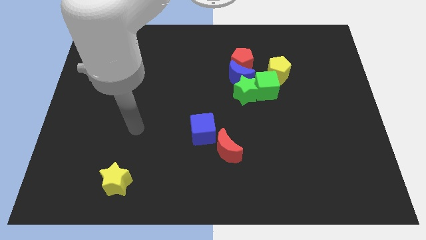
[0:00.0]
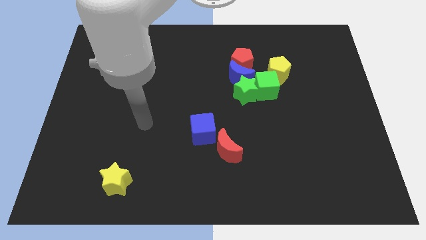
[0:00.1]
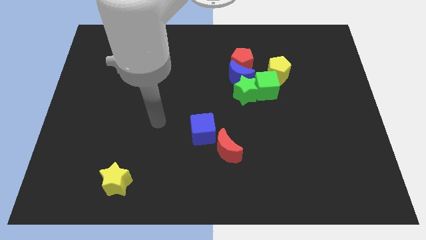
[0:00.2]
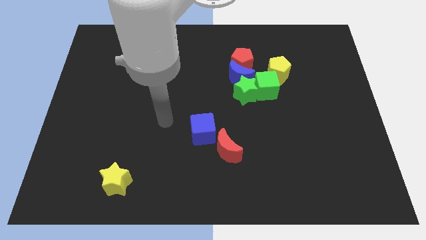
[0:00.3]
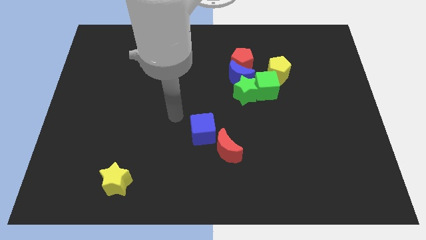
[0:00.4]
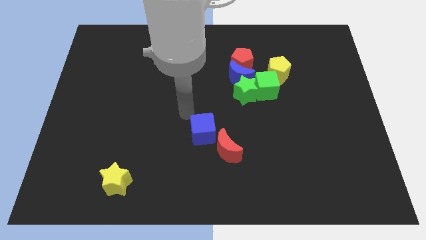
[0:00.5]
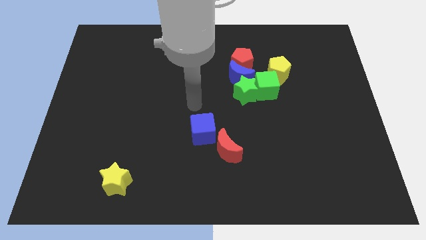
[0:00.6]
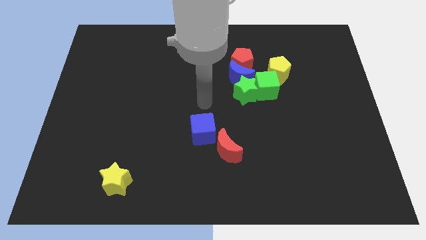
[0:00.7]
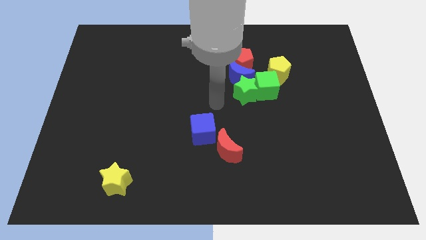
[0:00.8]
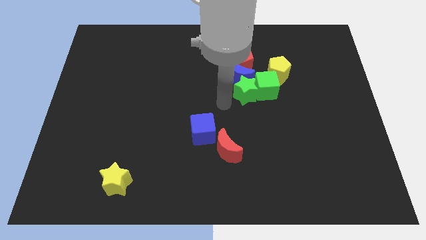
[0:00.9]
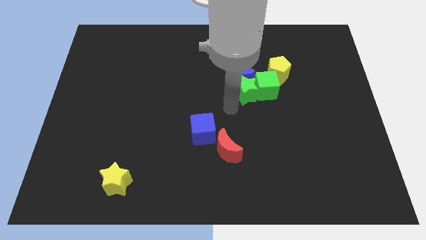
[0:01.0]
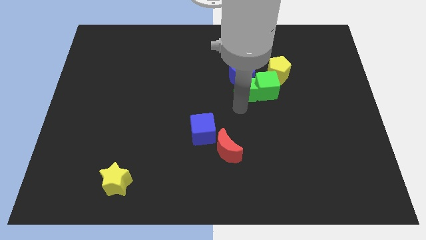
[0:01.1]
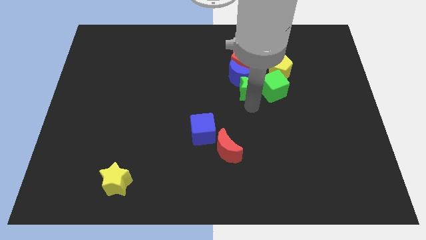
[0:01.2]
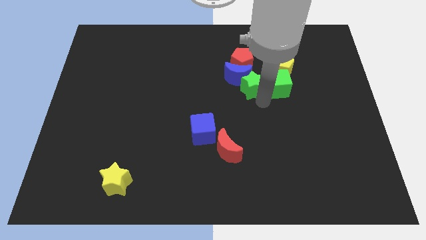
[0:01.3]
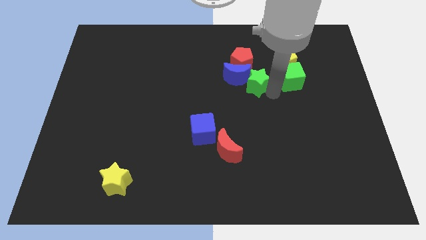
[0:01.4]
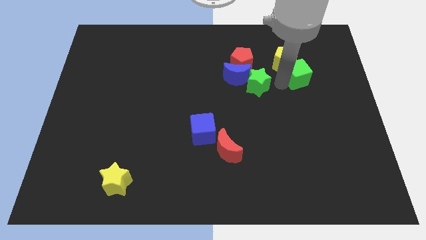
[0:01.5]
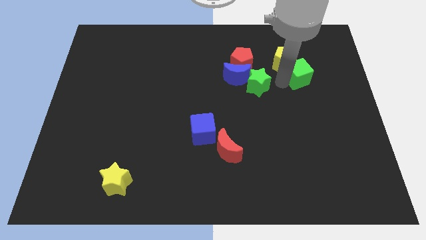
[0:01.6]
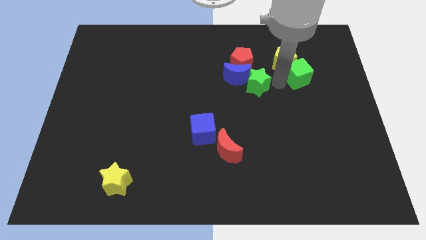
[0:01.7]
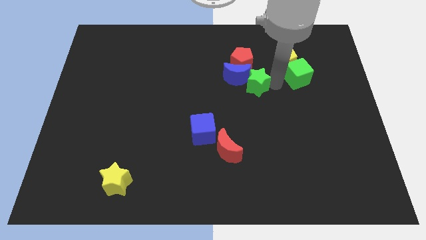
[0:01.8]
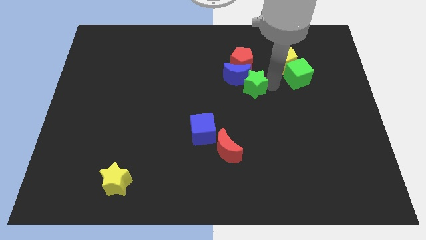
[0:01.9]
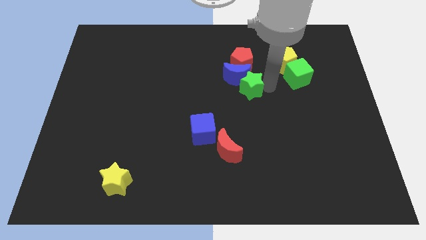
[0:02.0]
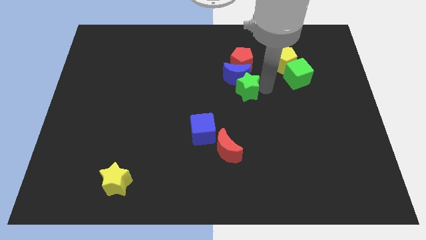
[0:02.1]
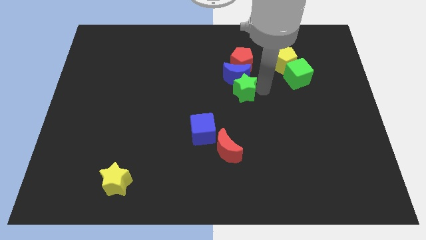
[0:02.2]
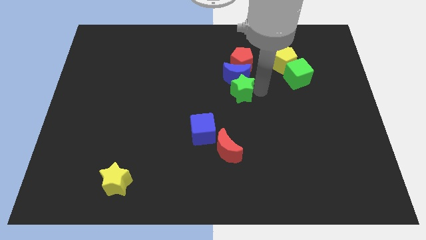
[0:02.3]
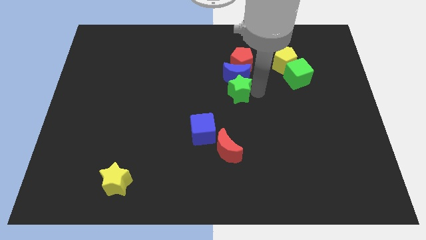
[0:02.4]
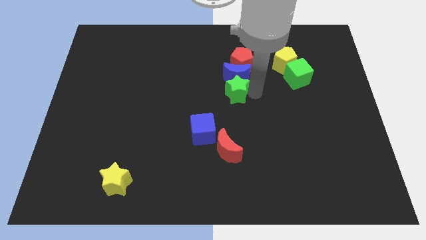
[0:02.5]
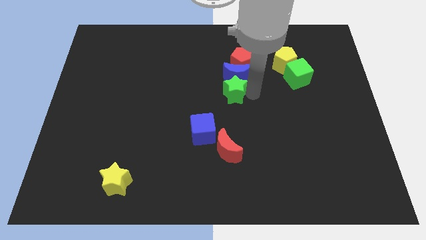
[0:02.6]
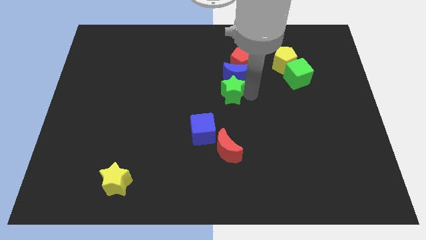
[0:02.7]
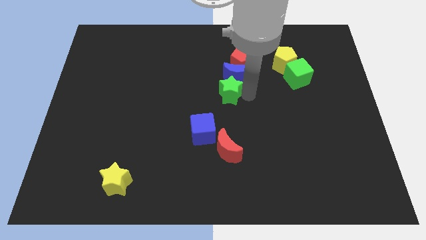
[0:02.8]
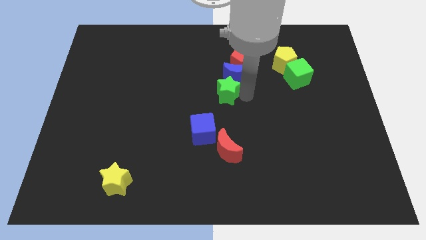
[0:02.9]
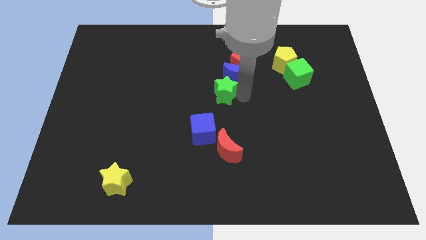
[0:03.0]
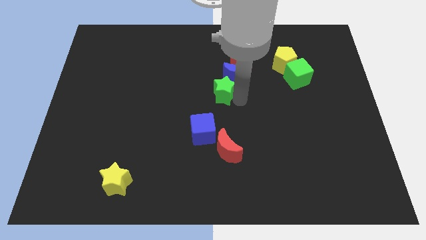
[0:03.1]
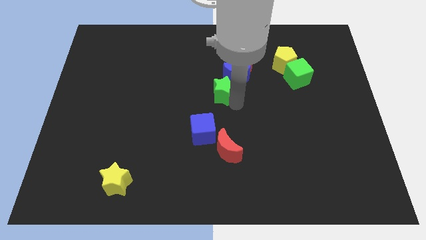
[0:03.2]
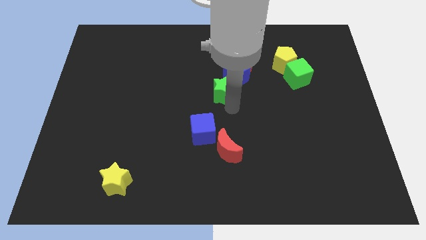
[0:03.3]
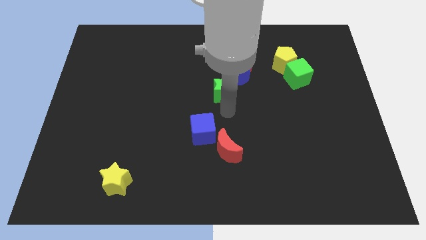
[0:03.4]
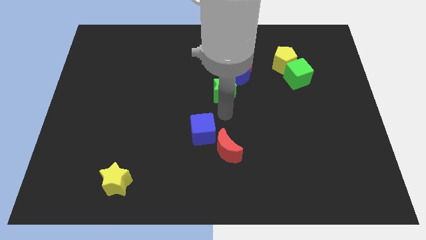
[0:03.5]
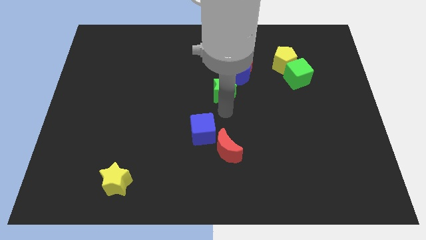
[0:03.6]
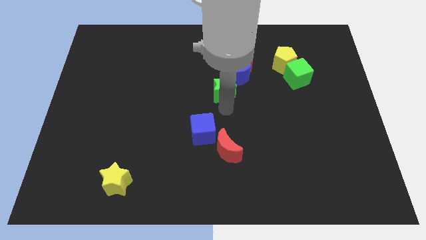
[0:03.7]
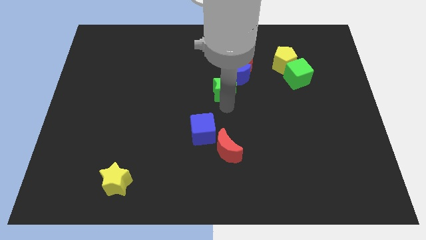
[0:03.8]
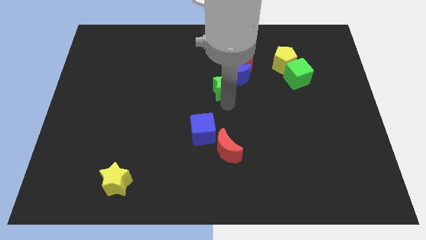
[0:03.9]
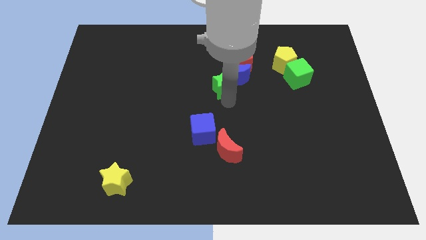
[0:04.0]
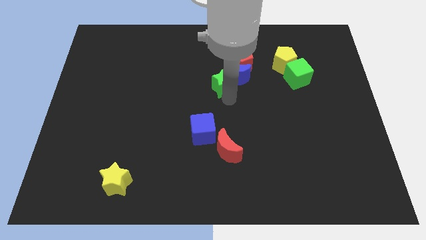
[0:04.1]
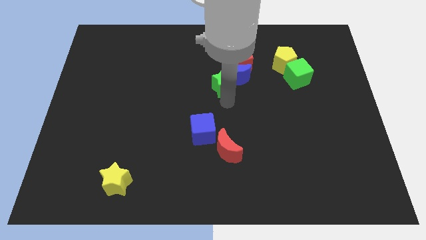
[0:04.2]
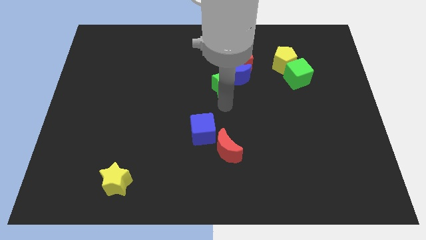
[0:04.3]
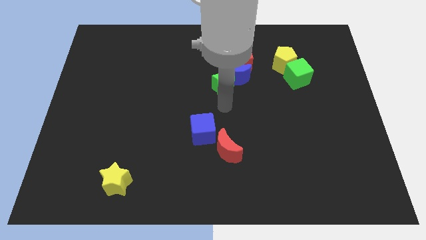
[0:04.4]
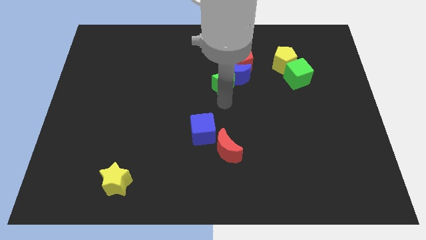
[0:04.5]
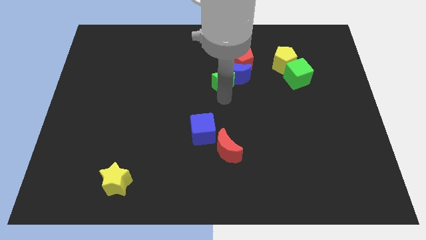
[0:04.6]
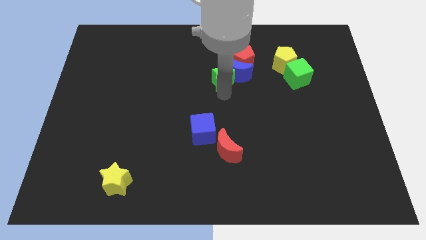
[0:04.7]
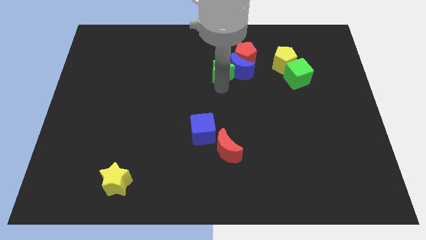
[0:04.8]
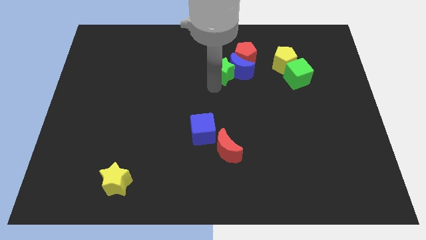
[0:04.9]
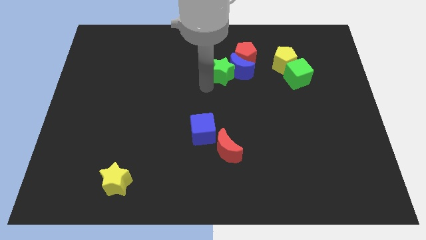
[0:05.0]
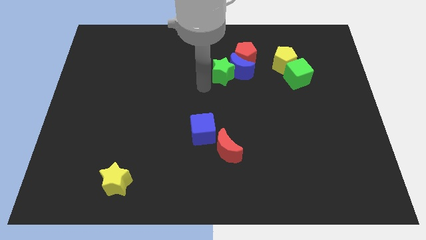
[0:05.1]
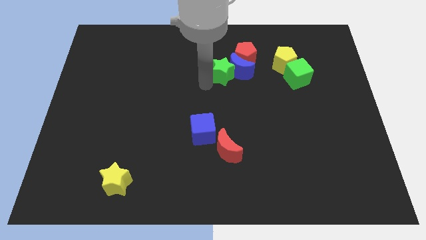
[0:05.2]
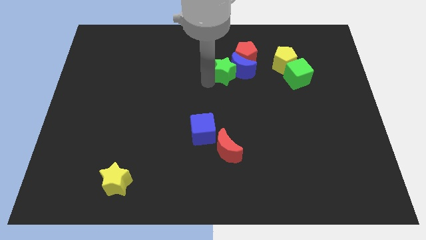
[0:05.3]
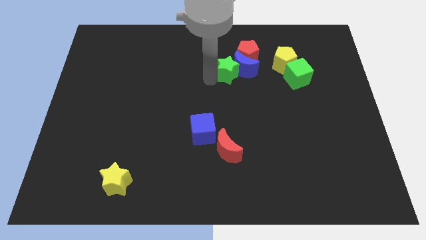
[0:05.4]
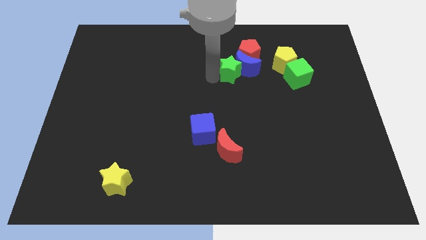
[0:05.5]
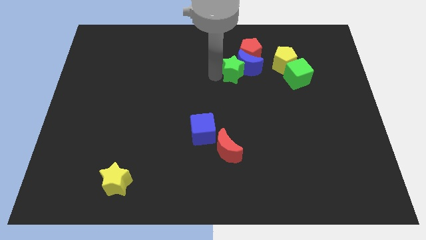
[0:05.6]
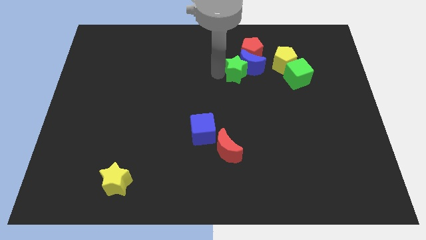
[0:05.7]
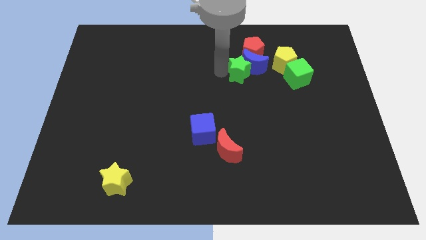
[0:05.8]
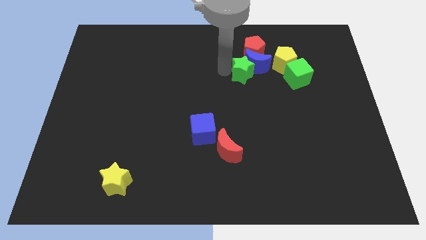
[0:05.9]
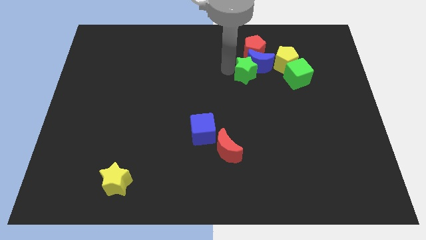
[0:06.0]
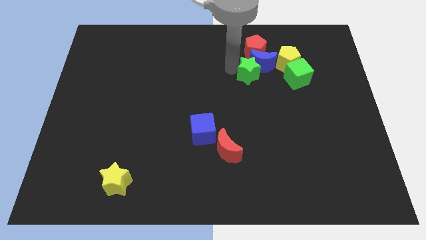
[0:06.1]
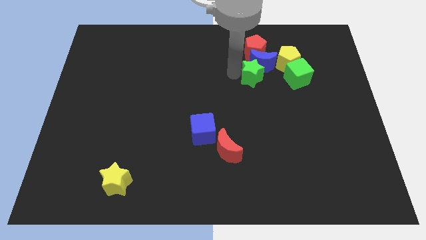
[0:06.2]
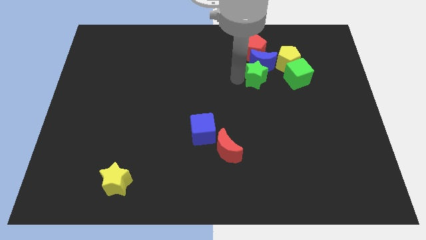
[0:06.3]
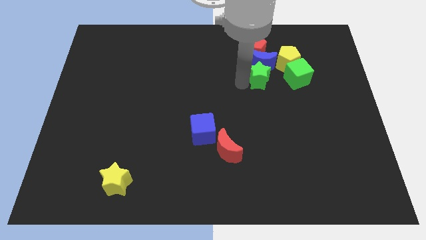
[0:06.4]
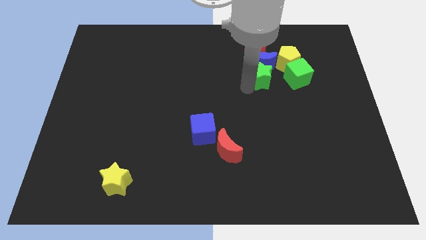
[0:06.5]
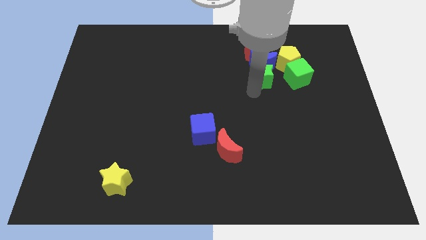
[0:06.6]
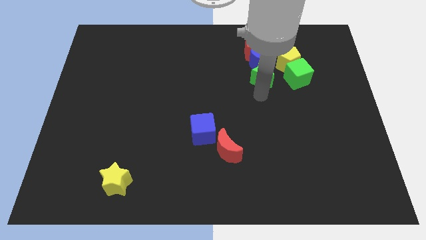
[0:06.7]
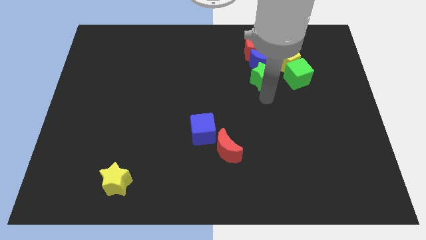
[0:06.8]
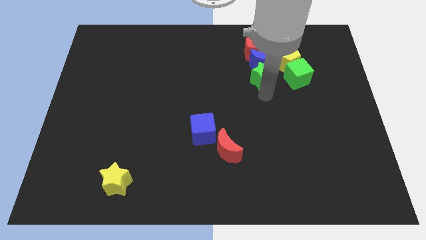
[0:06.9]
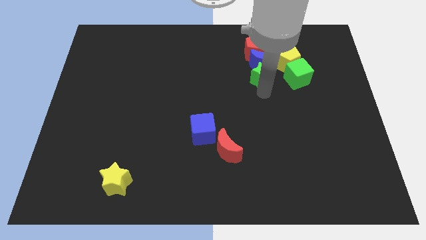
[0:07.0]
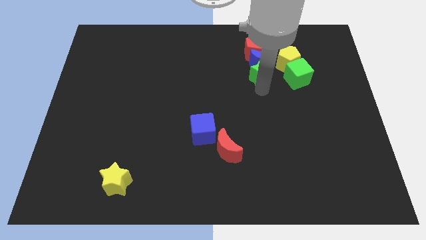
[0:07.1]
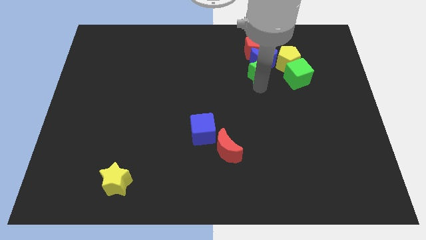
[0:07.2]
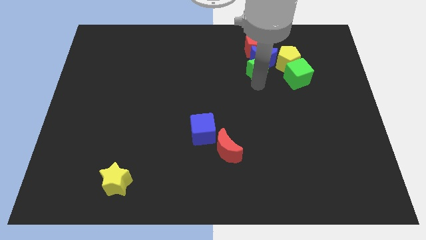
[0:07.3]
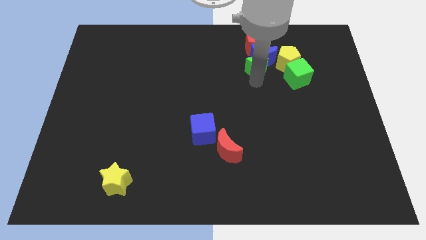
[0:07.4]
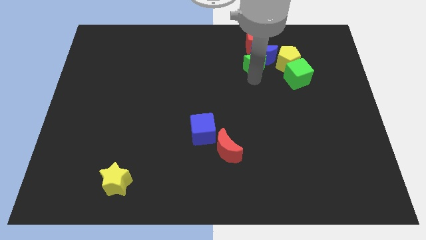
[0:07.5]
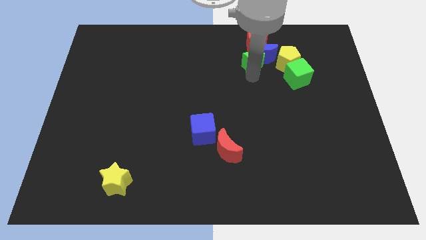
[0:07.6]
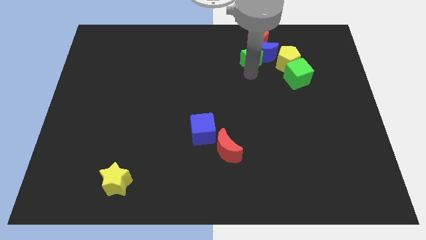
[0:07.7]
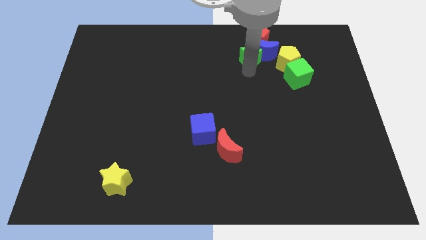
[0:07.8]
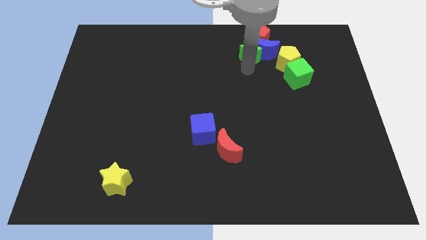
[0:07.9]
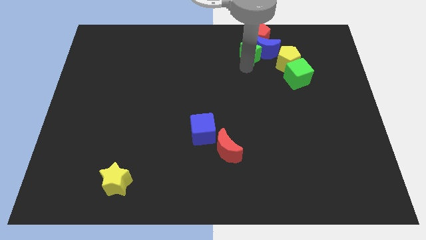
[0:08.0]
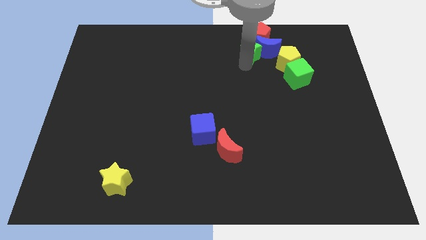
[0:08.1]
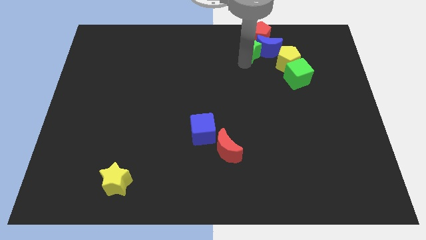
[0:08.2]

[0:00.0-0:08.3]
push the green star next to the red pentagon
